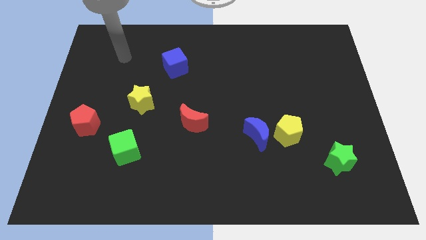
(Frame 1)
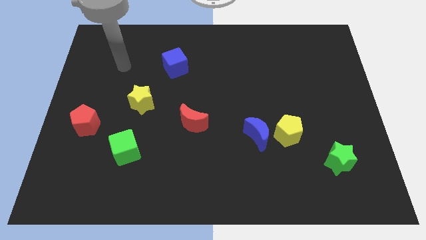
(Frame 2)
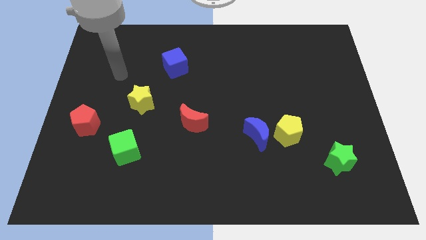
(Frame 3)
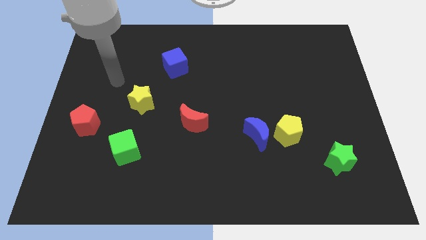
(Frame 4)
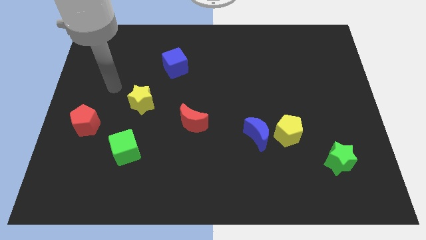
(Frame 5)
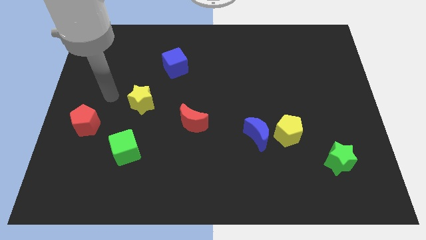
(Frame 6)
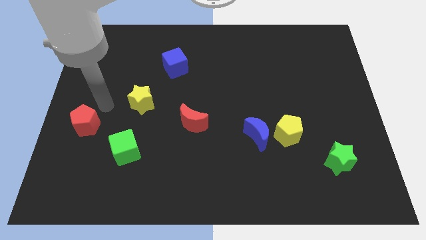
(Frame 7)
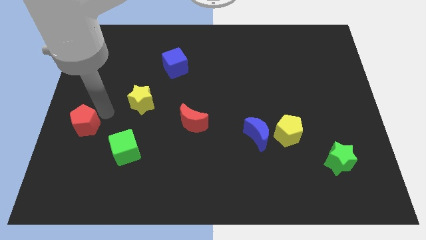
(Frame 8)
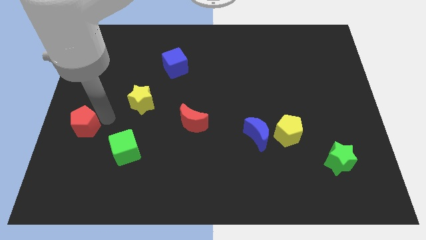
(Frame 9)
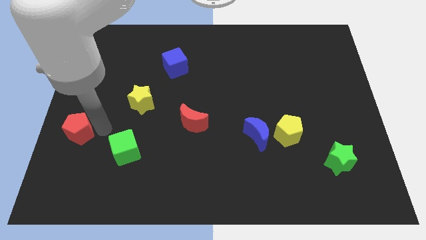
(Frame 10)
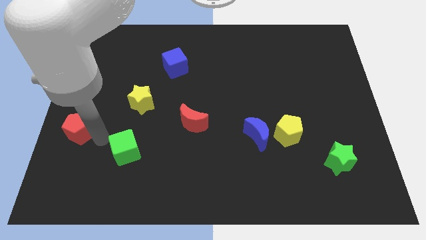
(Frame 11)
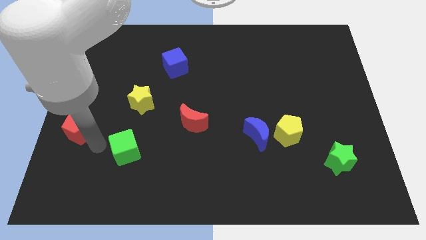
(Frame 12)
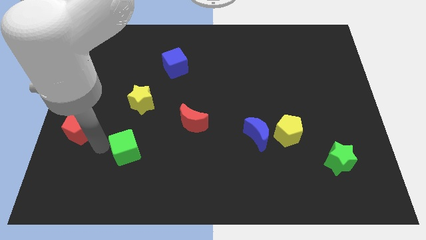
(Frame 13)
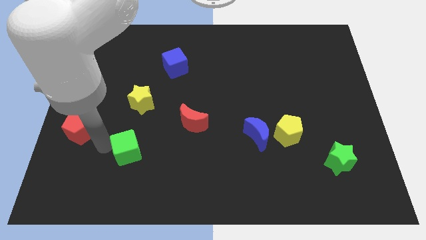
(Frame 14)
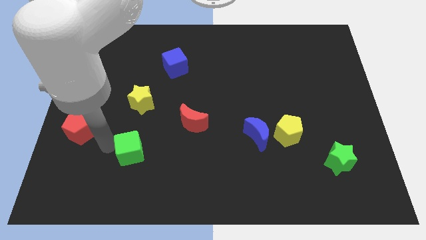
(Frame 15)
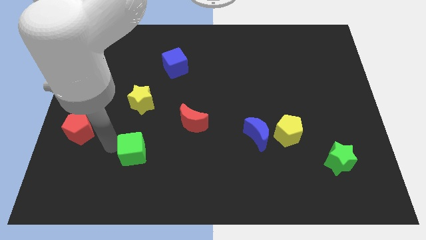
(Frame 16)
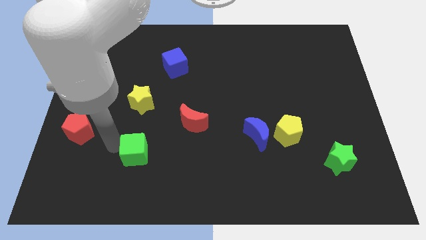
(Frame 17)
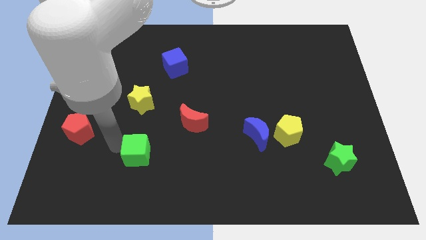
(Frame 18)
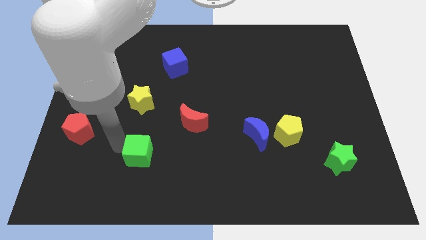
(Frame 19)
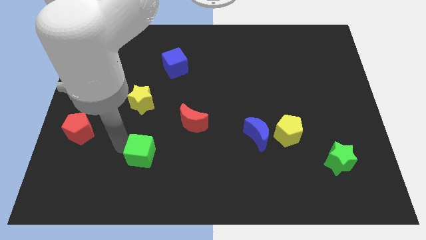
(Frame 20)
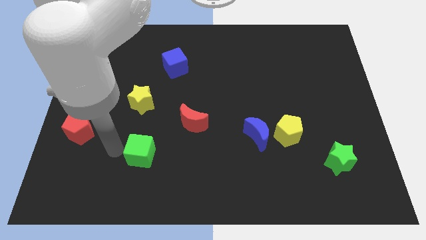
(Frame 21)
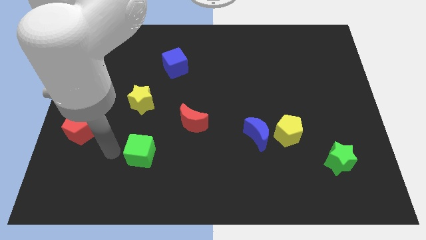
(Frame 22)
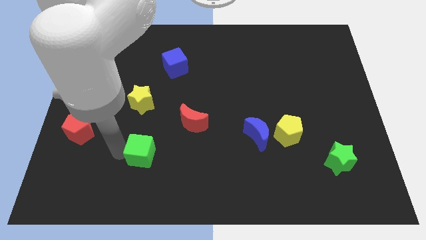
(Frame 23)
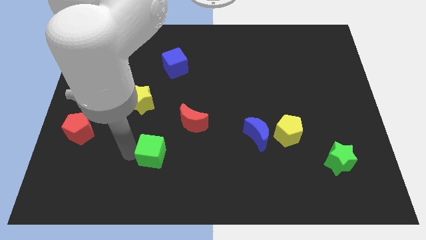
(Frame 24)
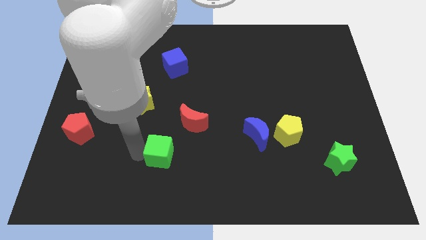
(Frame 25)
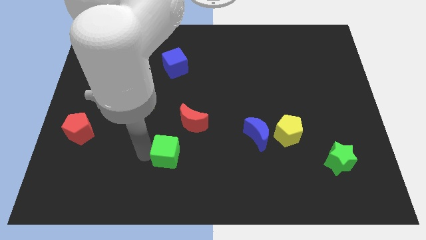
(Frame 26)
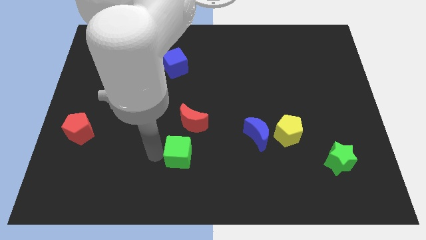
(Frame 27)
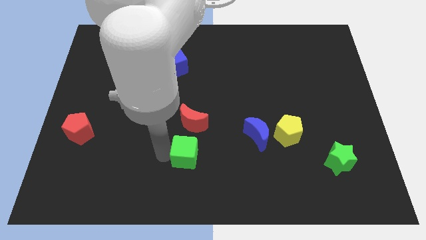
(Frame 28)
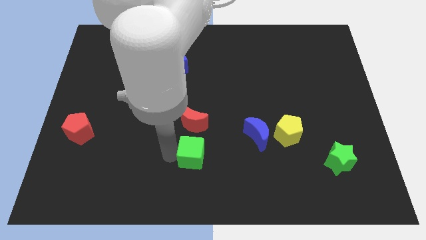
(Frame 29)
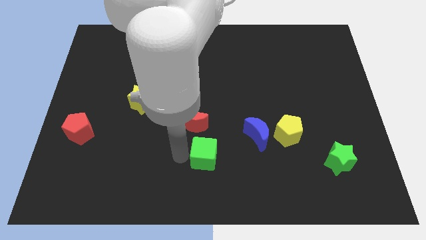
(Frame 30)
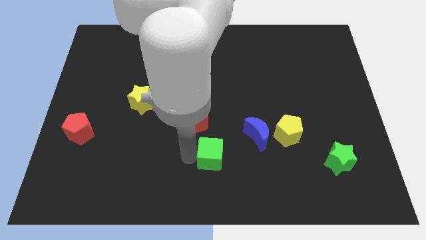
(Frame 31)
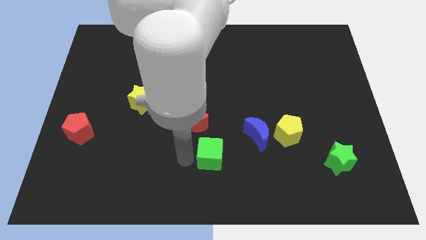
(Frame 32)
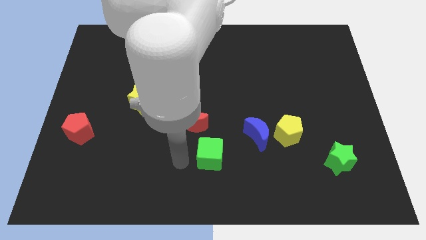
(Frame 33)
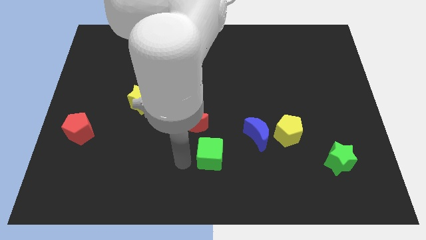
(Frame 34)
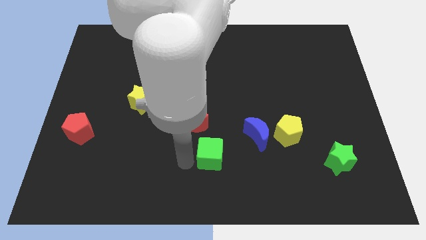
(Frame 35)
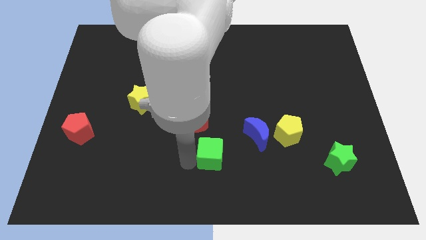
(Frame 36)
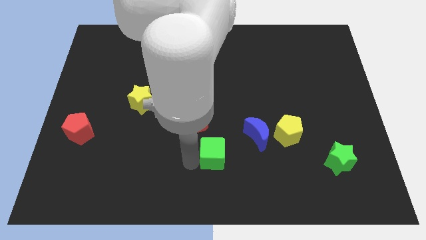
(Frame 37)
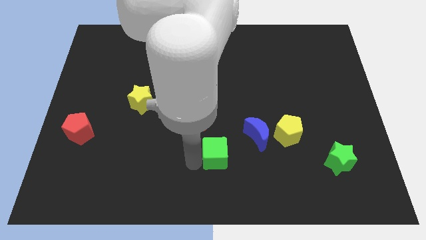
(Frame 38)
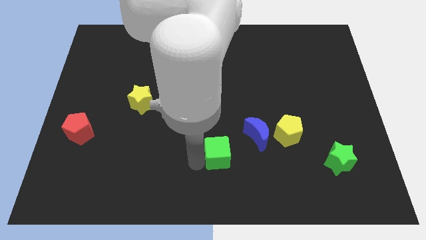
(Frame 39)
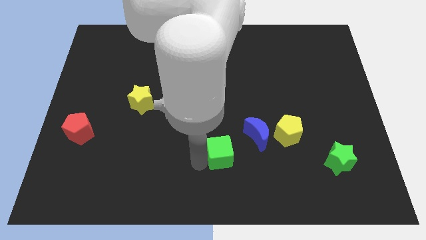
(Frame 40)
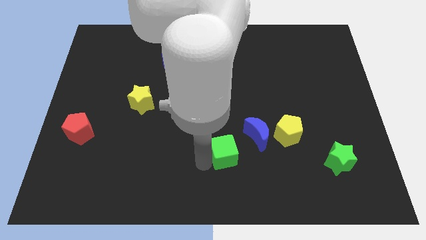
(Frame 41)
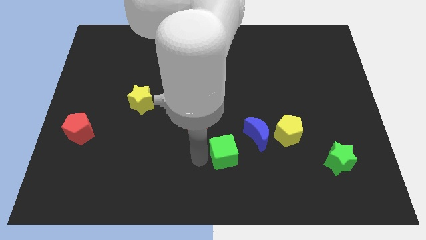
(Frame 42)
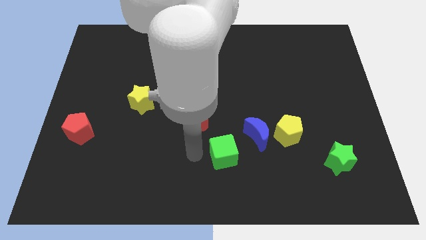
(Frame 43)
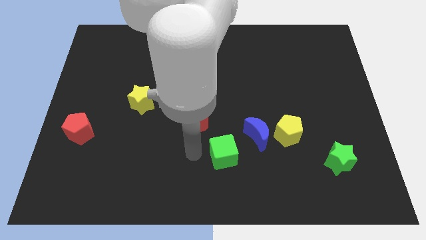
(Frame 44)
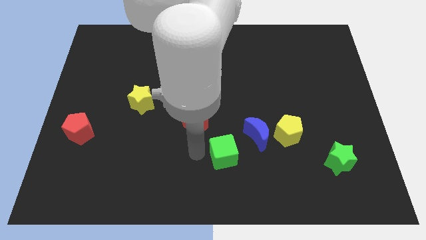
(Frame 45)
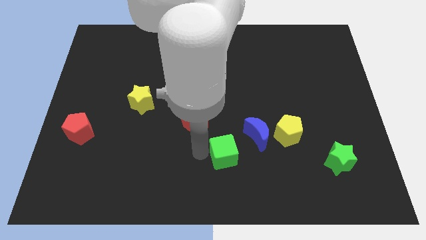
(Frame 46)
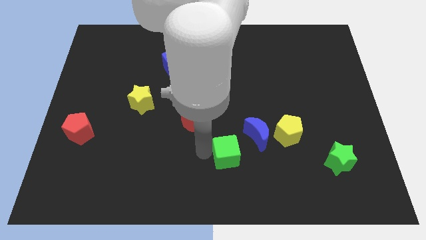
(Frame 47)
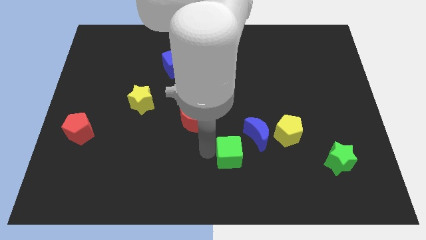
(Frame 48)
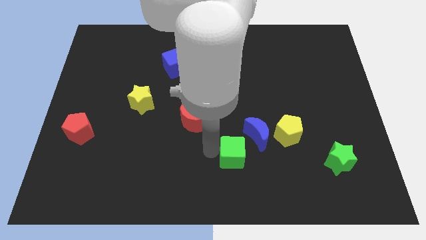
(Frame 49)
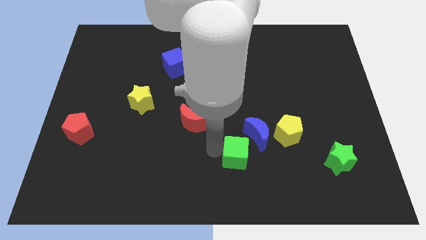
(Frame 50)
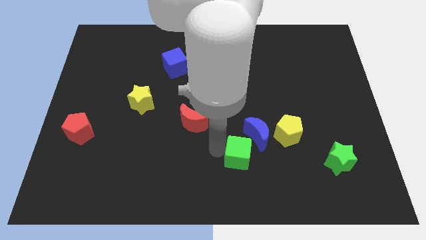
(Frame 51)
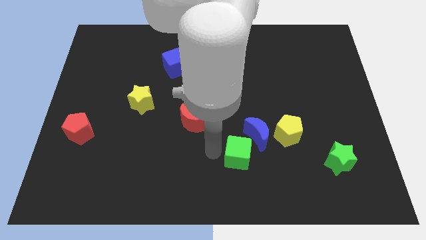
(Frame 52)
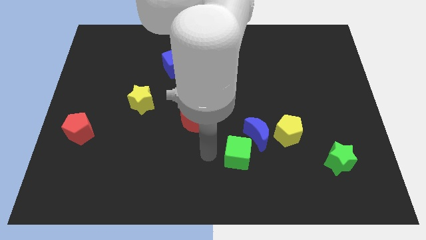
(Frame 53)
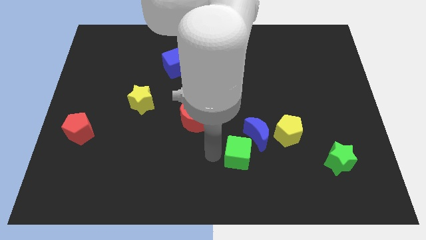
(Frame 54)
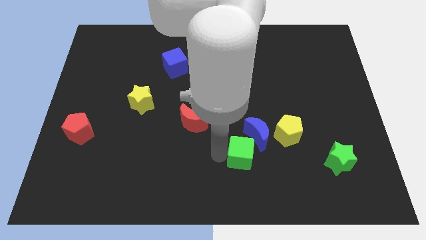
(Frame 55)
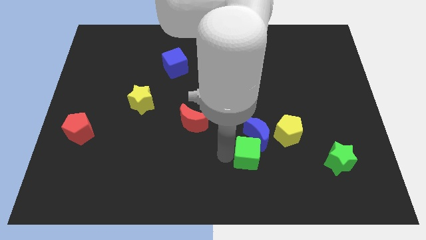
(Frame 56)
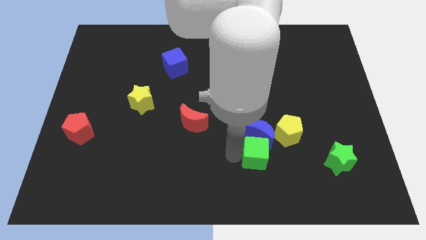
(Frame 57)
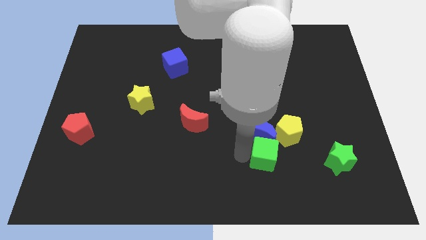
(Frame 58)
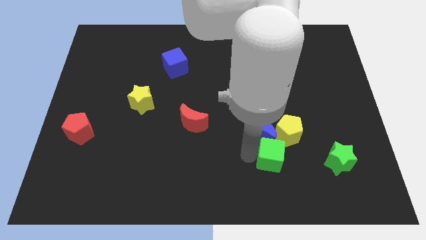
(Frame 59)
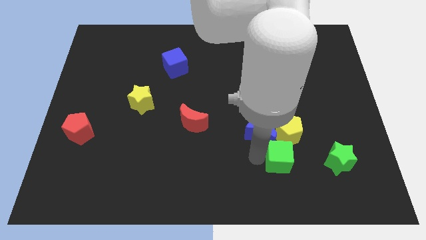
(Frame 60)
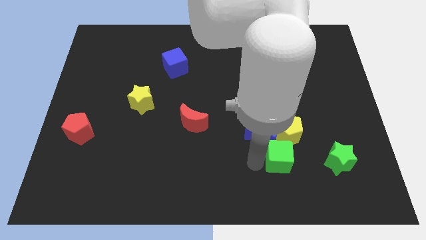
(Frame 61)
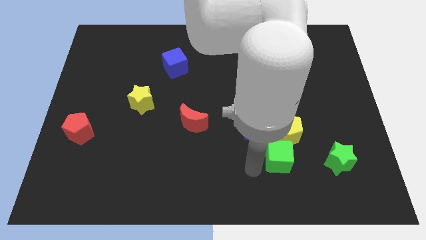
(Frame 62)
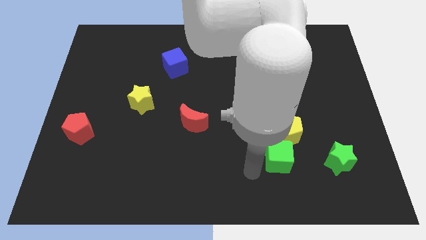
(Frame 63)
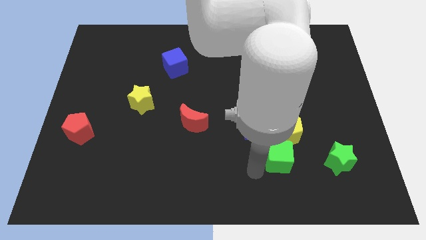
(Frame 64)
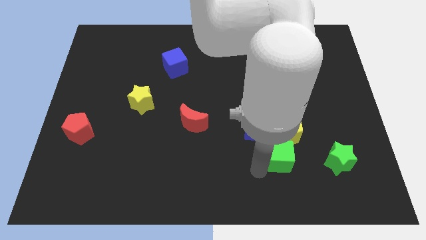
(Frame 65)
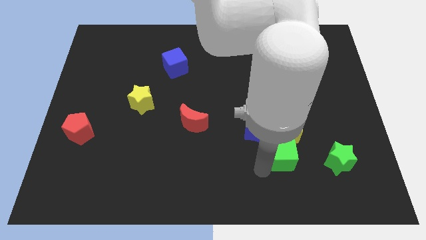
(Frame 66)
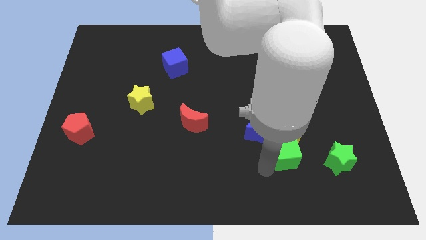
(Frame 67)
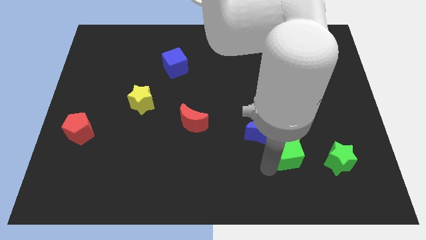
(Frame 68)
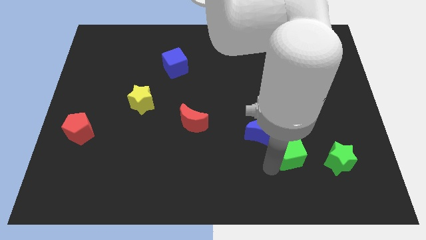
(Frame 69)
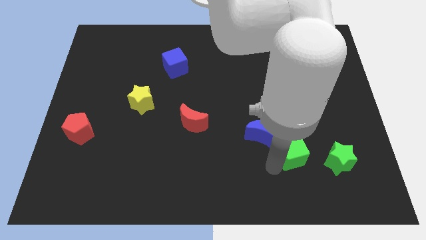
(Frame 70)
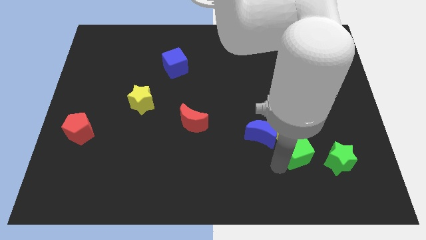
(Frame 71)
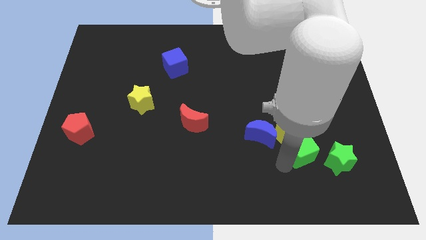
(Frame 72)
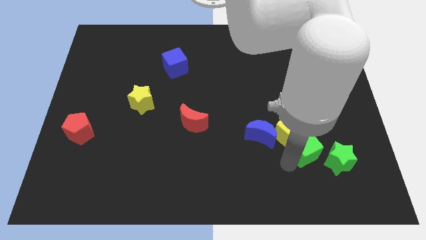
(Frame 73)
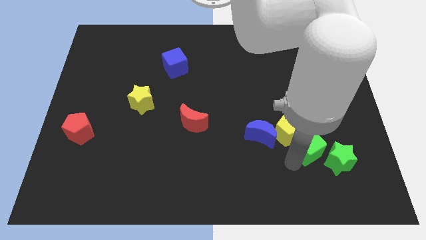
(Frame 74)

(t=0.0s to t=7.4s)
put the green cube to the right of the yellow pentagon
